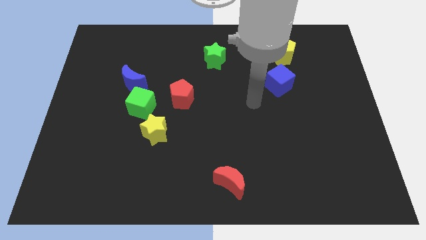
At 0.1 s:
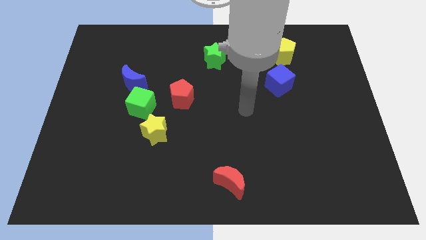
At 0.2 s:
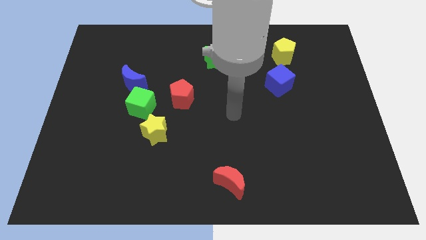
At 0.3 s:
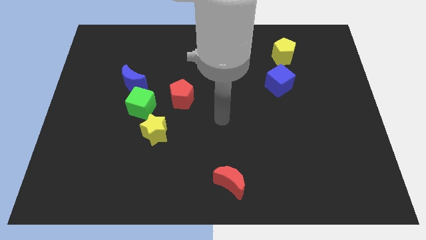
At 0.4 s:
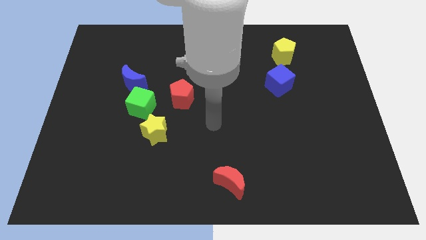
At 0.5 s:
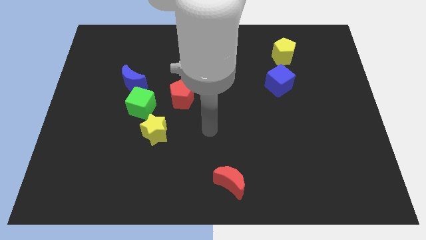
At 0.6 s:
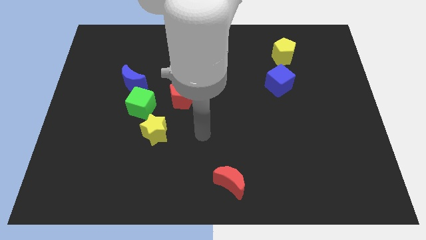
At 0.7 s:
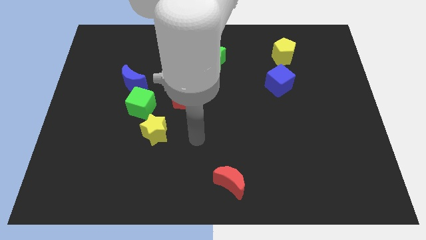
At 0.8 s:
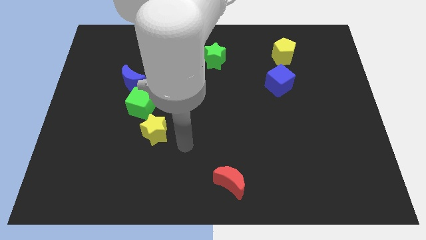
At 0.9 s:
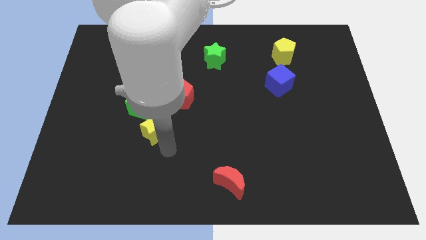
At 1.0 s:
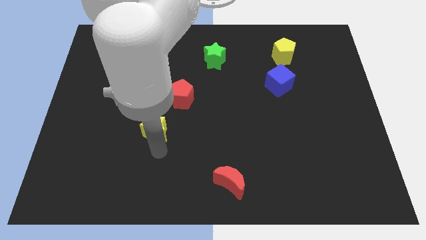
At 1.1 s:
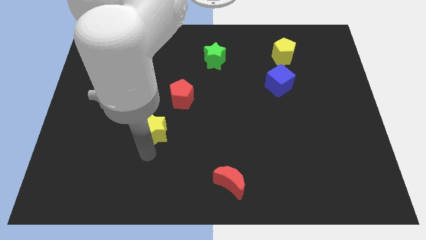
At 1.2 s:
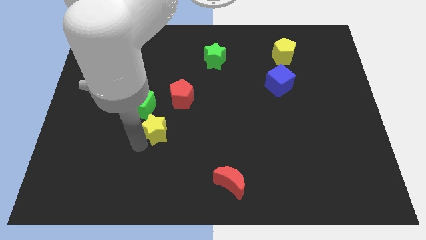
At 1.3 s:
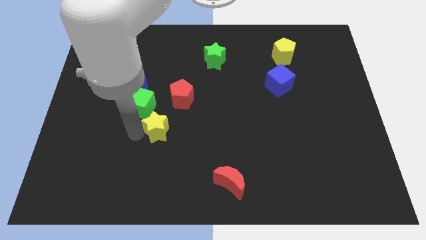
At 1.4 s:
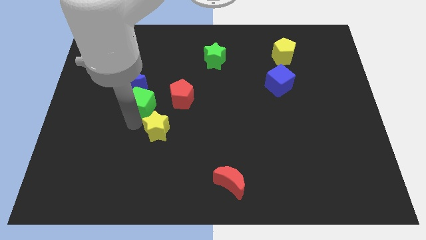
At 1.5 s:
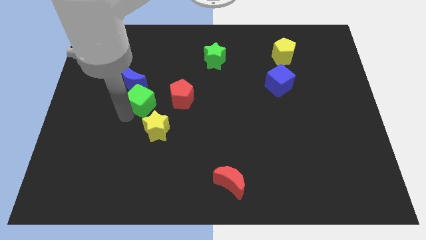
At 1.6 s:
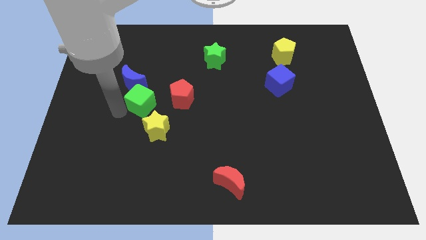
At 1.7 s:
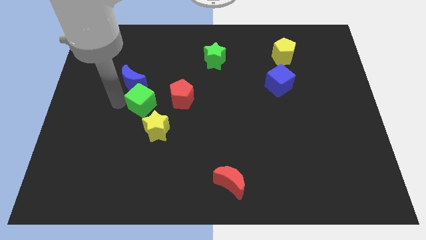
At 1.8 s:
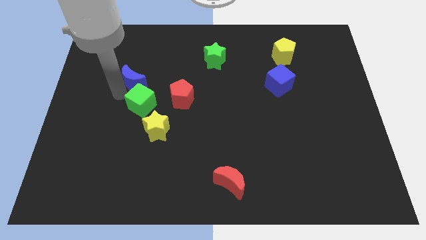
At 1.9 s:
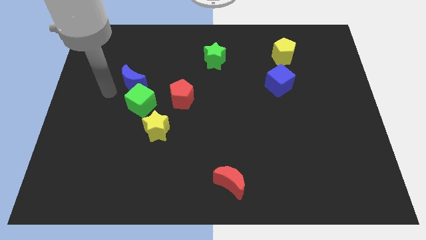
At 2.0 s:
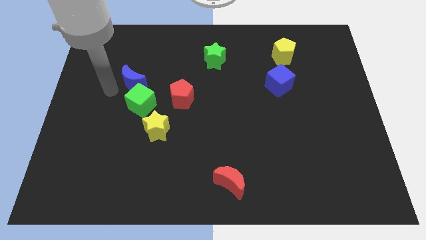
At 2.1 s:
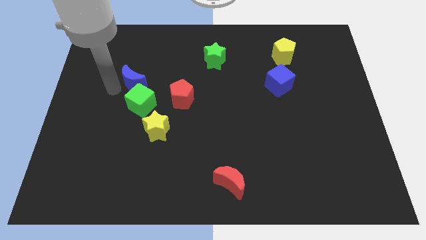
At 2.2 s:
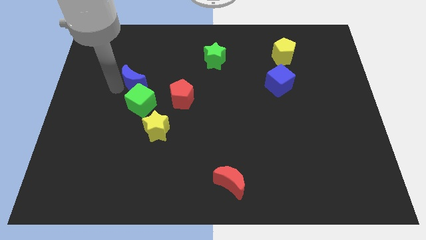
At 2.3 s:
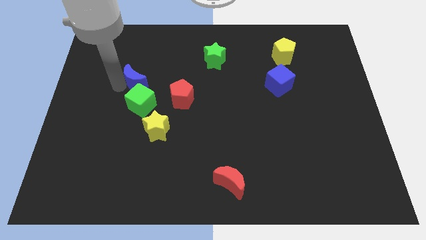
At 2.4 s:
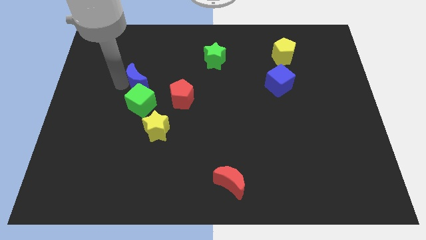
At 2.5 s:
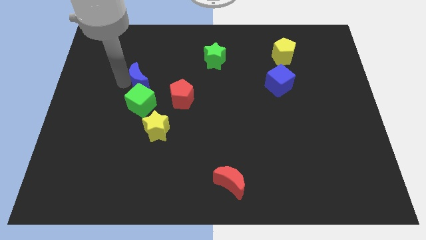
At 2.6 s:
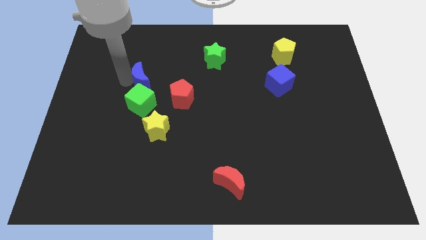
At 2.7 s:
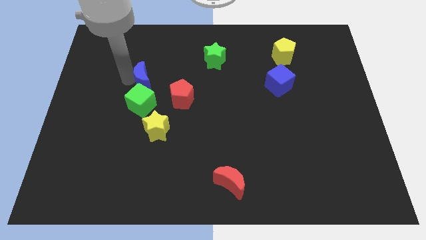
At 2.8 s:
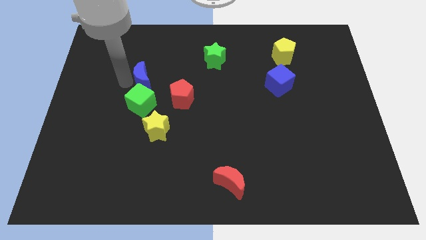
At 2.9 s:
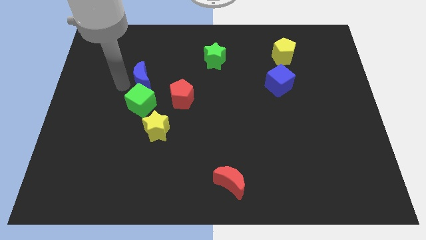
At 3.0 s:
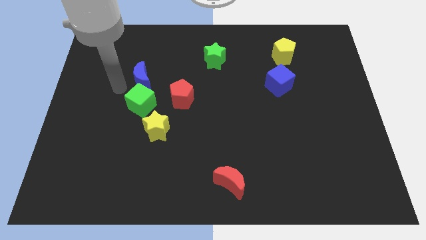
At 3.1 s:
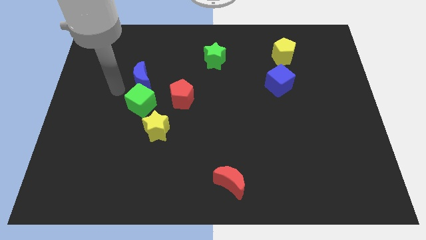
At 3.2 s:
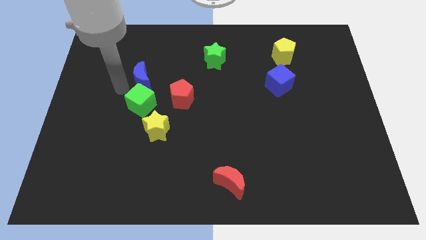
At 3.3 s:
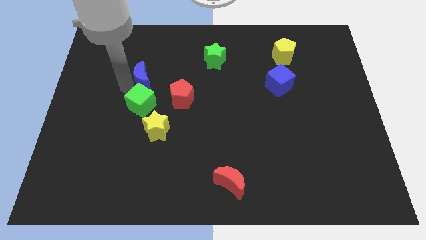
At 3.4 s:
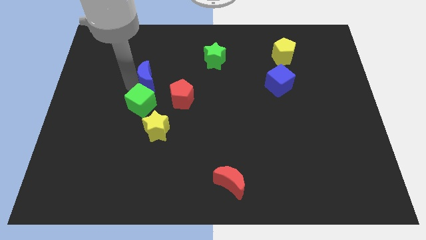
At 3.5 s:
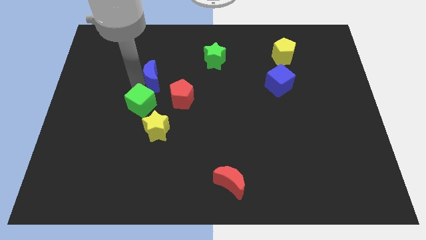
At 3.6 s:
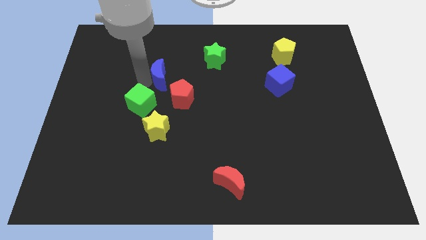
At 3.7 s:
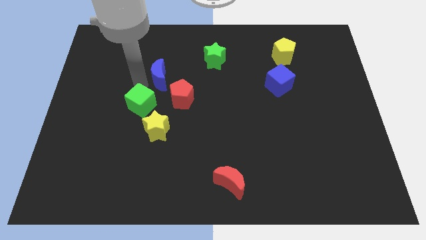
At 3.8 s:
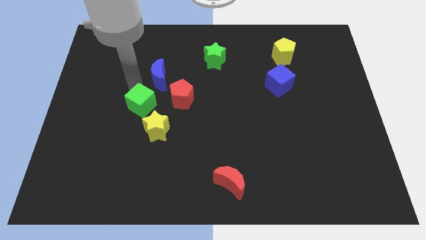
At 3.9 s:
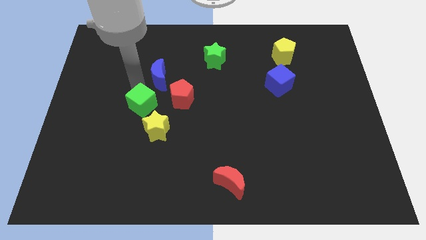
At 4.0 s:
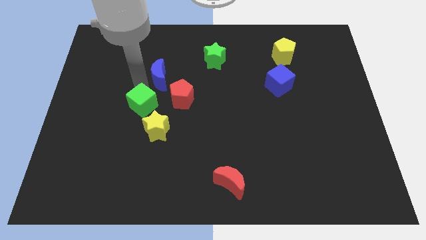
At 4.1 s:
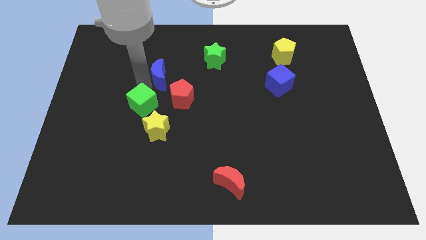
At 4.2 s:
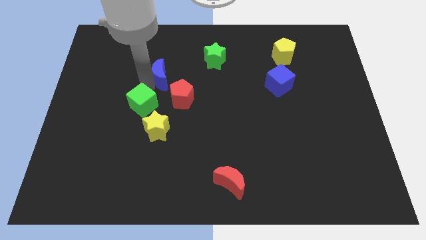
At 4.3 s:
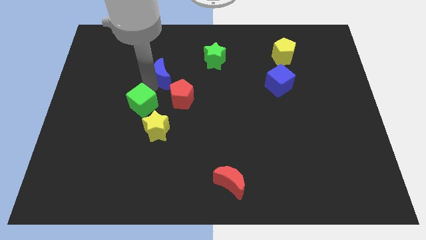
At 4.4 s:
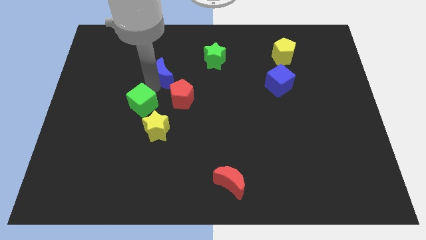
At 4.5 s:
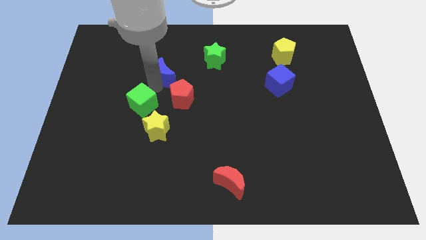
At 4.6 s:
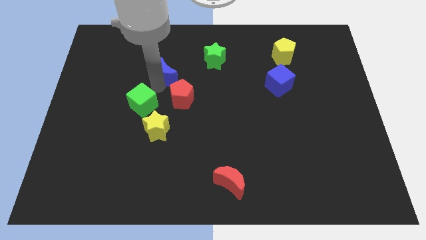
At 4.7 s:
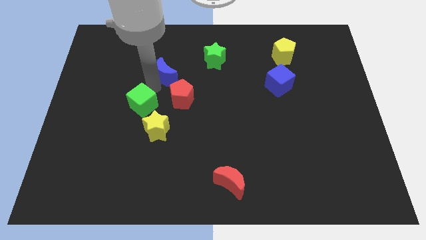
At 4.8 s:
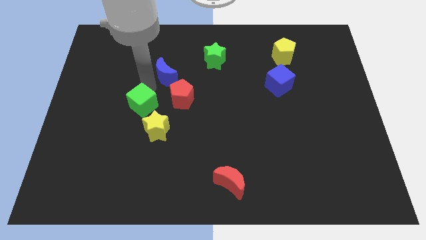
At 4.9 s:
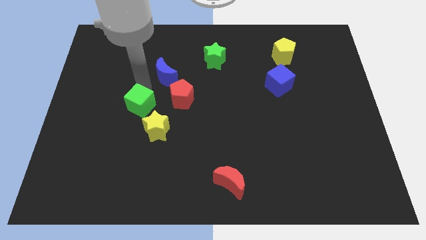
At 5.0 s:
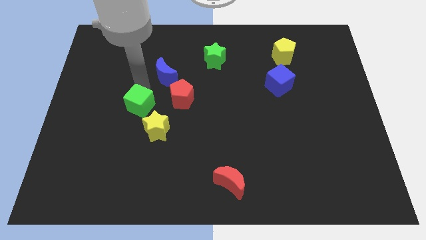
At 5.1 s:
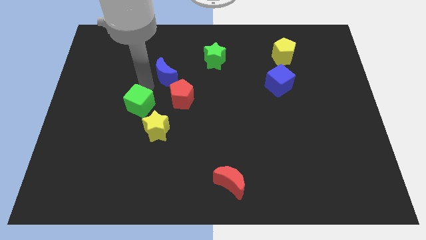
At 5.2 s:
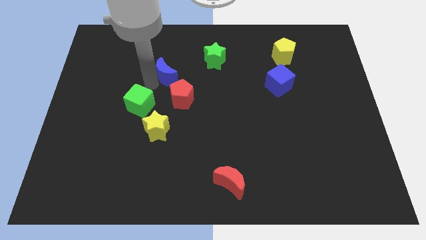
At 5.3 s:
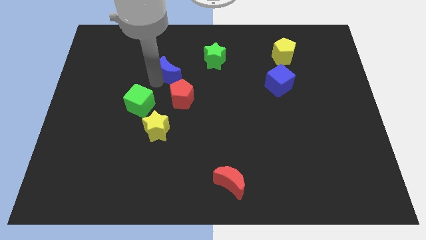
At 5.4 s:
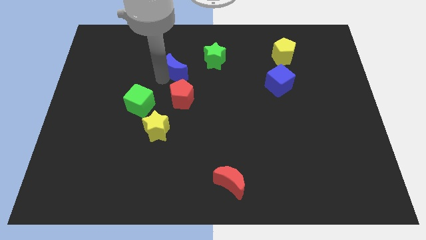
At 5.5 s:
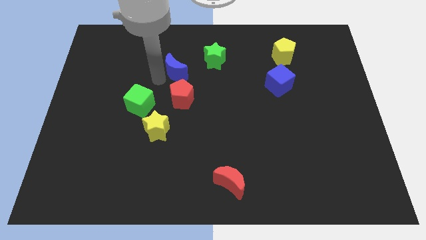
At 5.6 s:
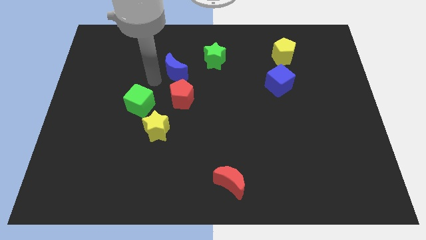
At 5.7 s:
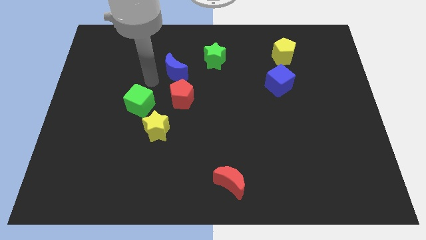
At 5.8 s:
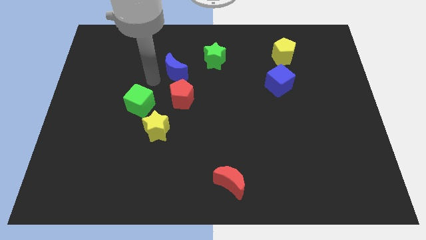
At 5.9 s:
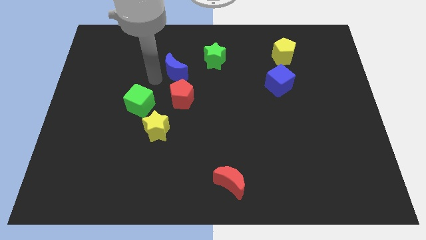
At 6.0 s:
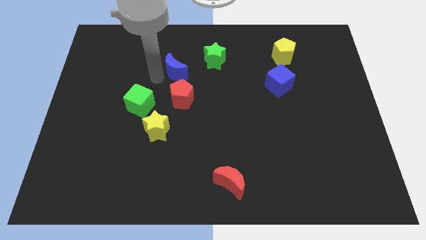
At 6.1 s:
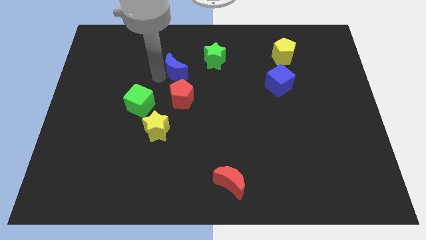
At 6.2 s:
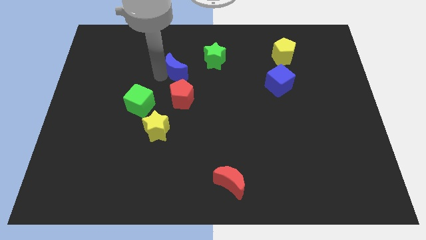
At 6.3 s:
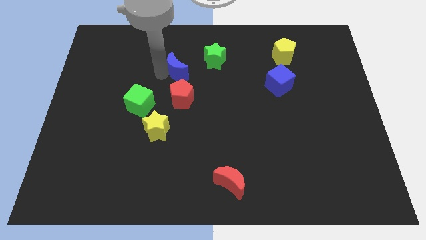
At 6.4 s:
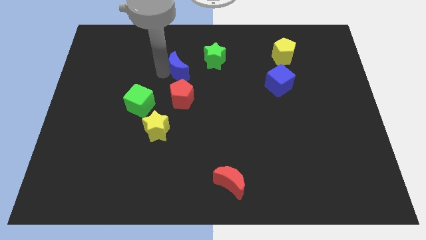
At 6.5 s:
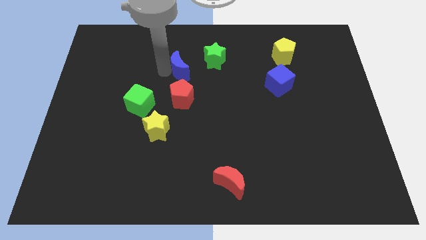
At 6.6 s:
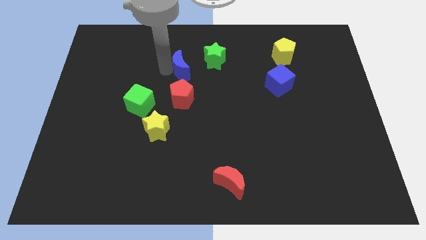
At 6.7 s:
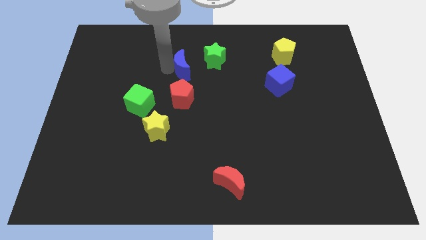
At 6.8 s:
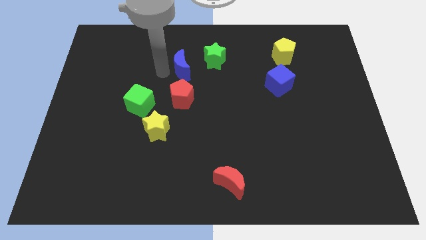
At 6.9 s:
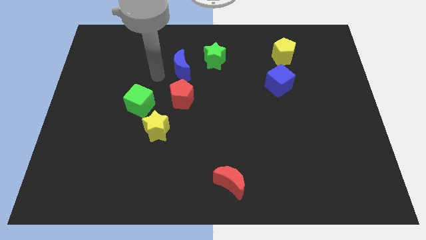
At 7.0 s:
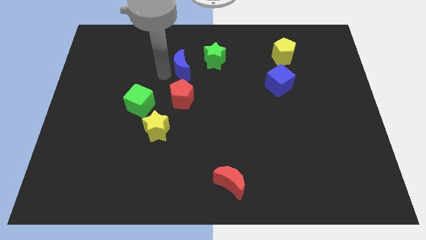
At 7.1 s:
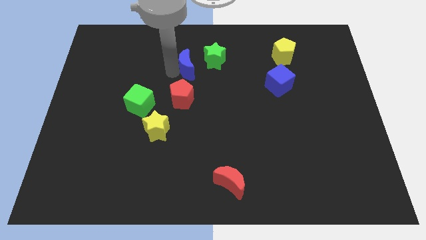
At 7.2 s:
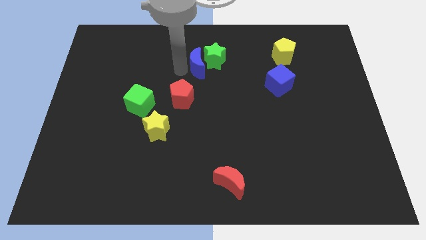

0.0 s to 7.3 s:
slide the blue moon to the green star
